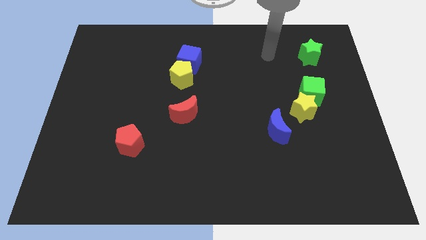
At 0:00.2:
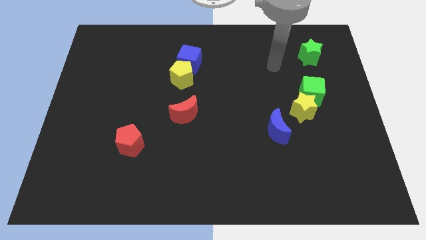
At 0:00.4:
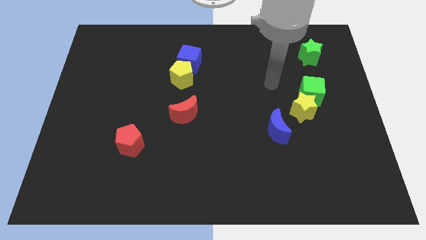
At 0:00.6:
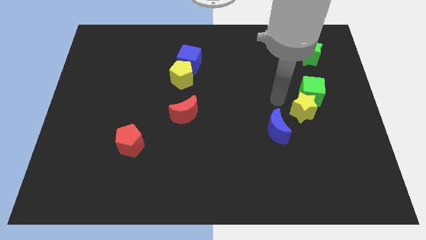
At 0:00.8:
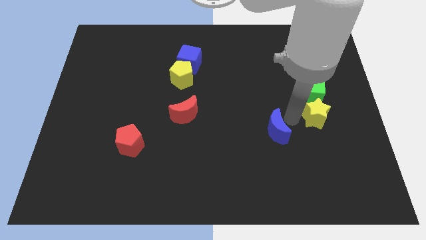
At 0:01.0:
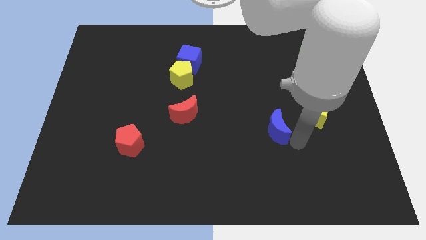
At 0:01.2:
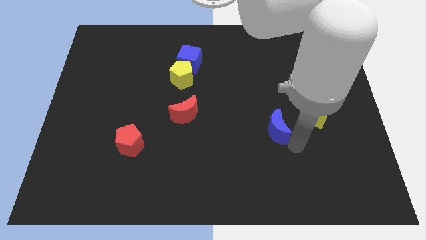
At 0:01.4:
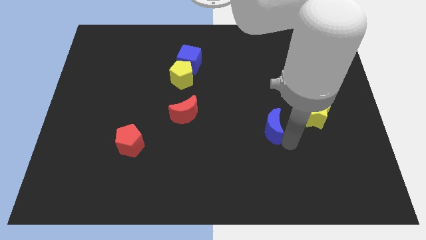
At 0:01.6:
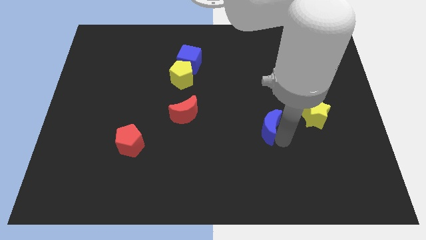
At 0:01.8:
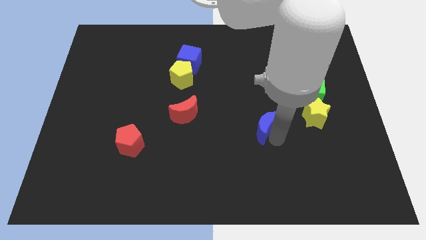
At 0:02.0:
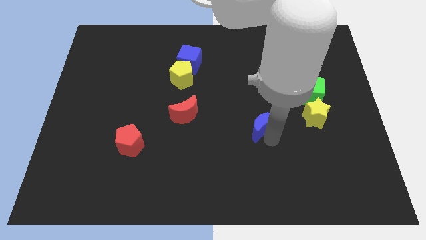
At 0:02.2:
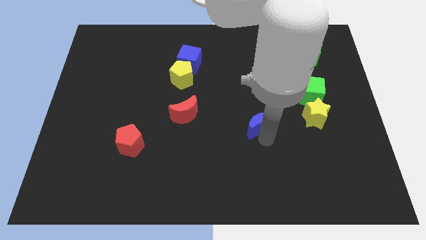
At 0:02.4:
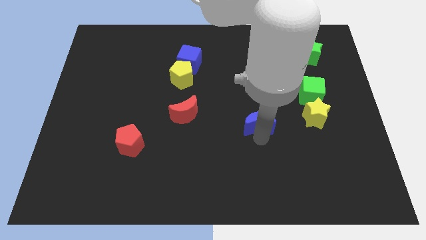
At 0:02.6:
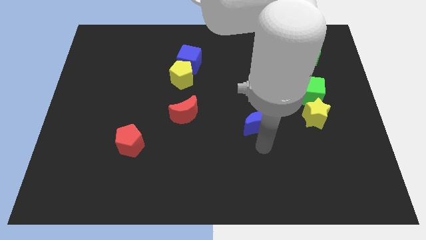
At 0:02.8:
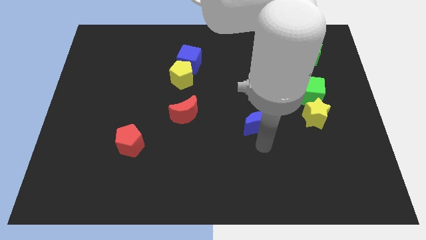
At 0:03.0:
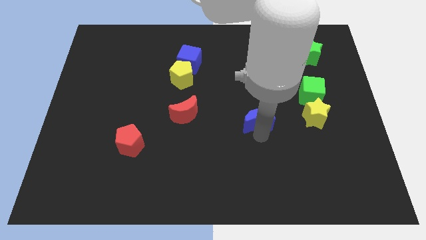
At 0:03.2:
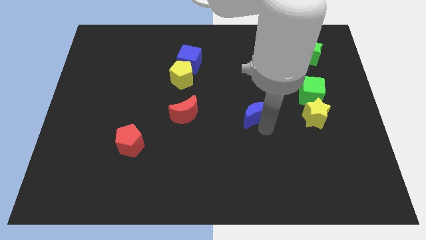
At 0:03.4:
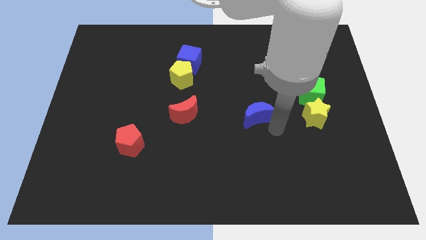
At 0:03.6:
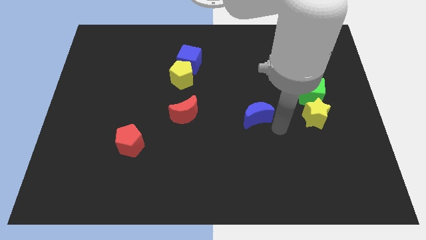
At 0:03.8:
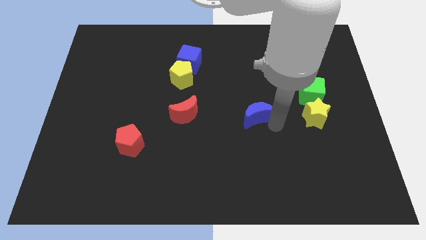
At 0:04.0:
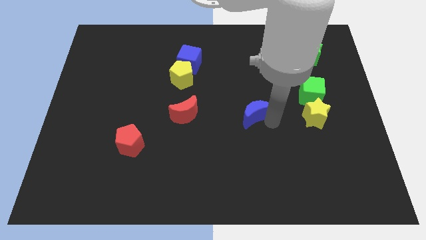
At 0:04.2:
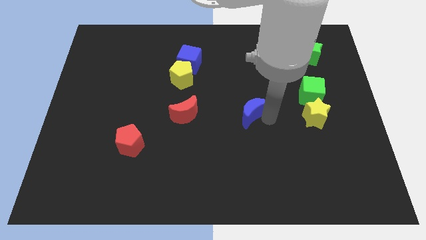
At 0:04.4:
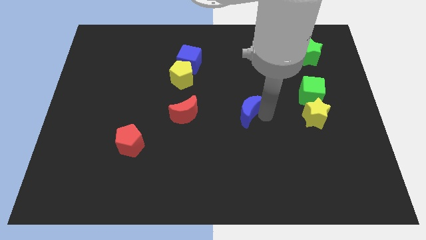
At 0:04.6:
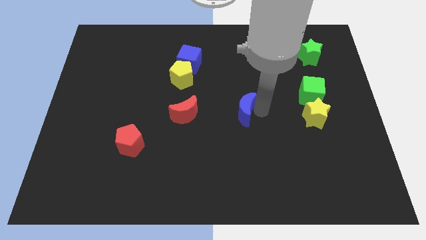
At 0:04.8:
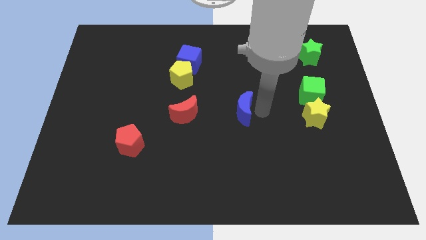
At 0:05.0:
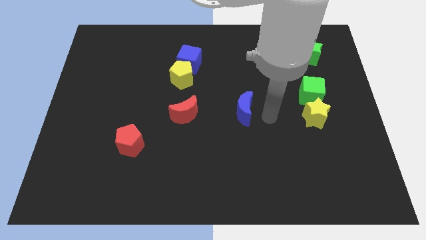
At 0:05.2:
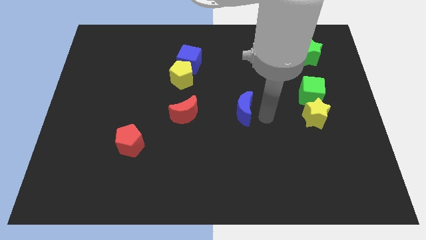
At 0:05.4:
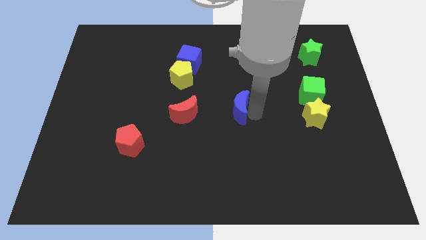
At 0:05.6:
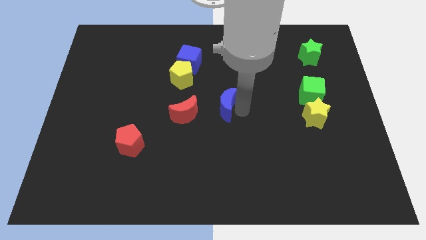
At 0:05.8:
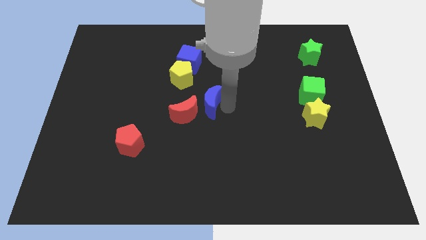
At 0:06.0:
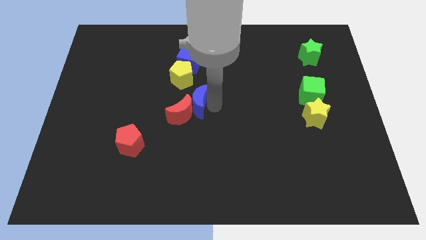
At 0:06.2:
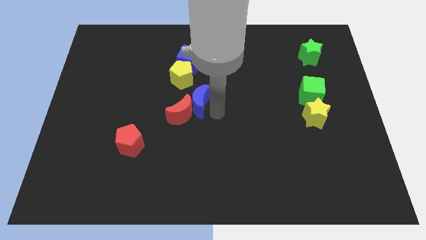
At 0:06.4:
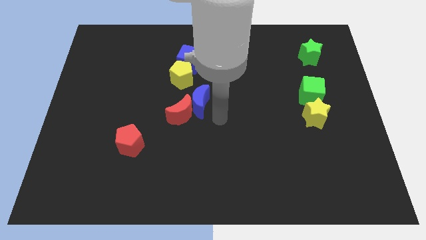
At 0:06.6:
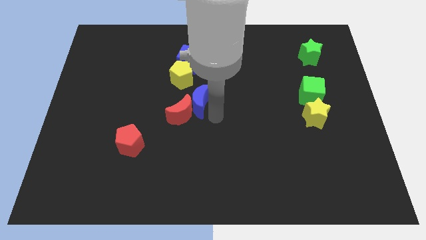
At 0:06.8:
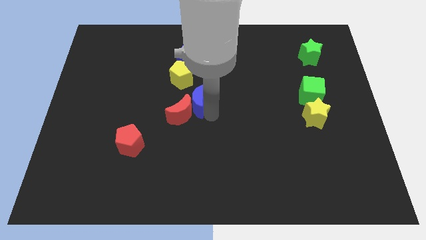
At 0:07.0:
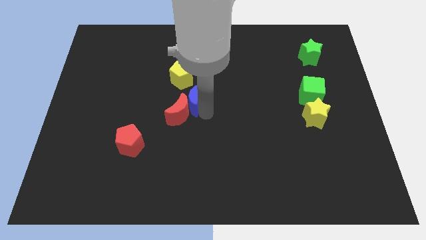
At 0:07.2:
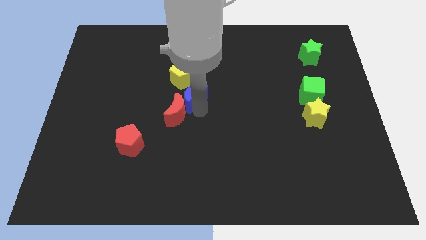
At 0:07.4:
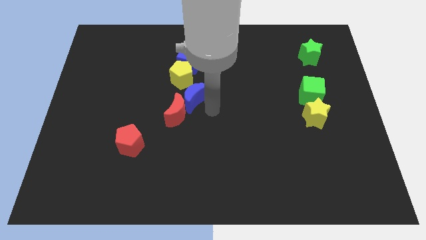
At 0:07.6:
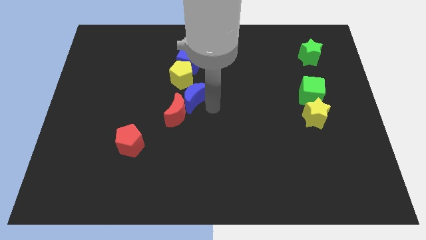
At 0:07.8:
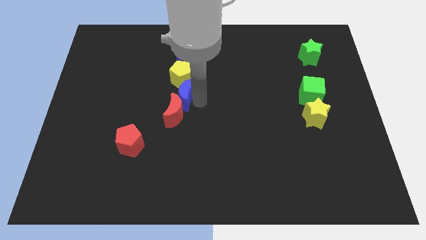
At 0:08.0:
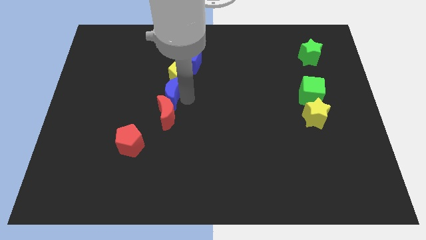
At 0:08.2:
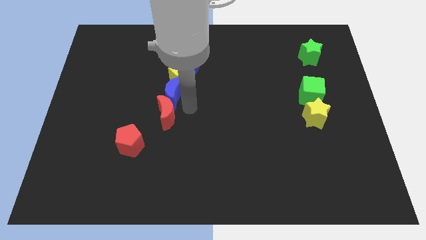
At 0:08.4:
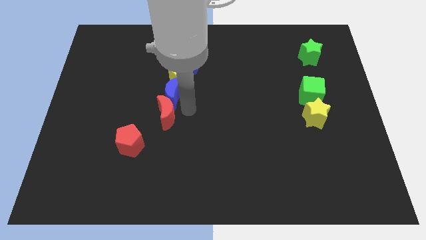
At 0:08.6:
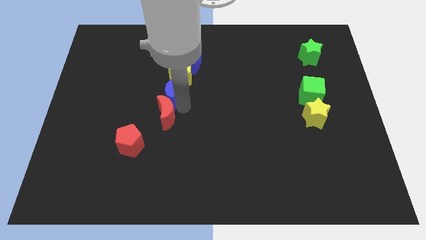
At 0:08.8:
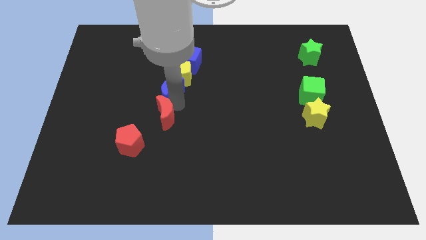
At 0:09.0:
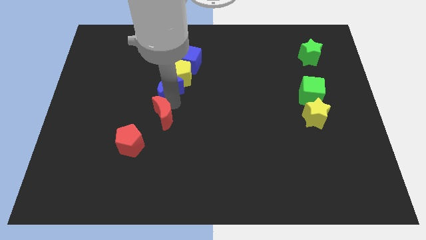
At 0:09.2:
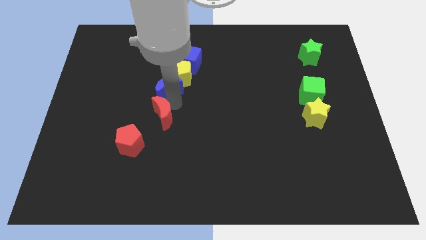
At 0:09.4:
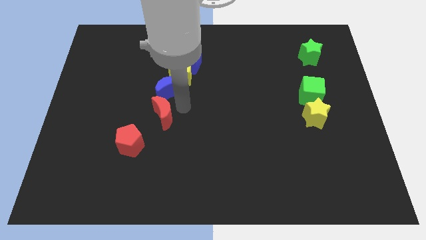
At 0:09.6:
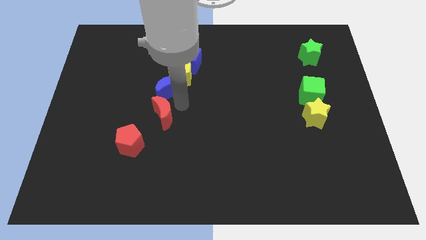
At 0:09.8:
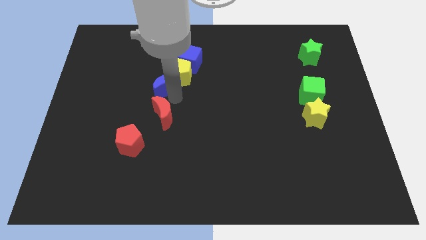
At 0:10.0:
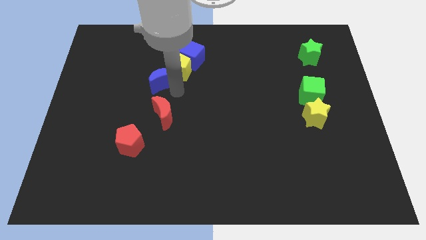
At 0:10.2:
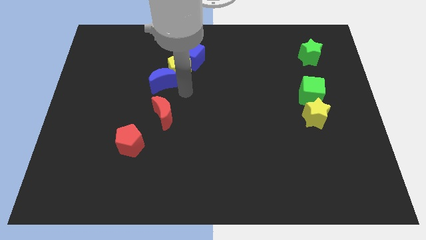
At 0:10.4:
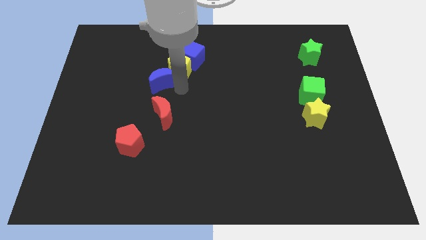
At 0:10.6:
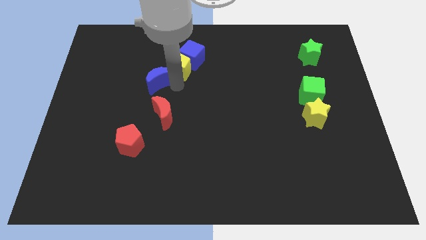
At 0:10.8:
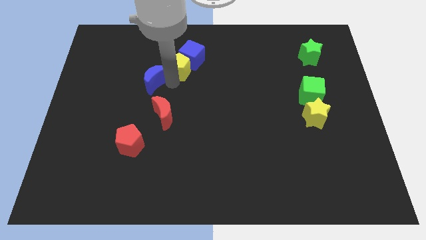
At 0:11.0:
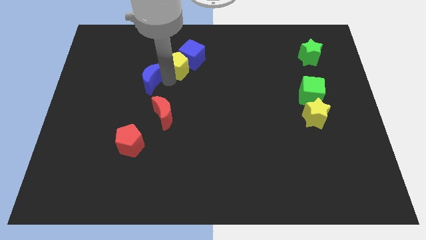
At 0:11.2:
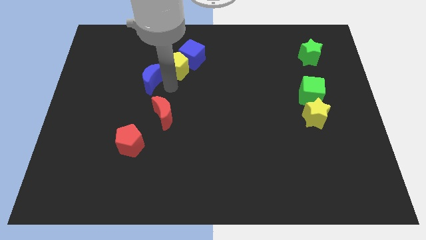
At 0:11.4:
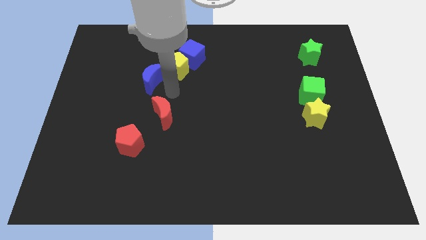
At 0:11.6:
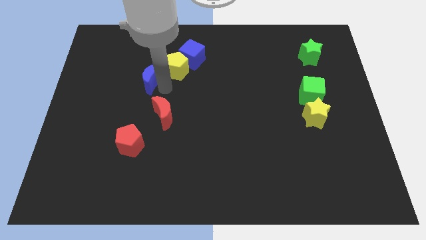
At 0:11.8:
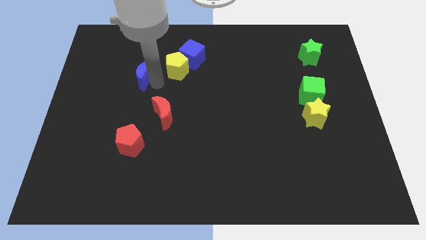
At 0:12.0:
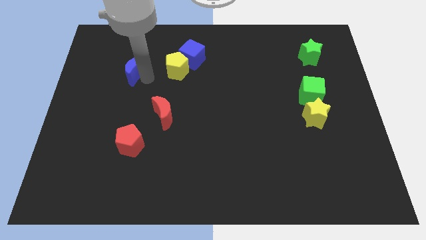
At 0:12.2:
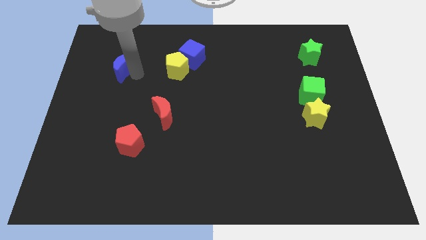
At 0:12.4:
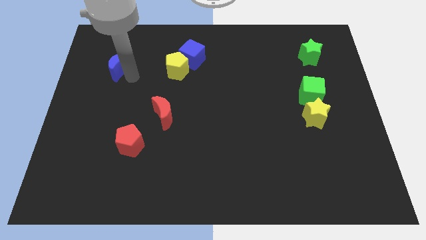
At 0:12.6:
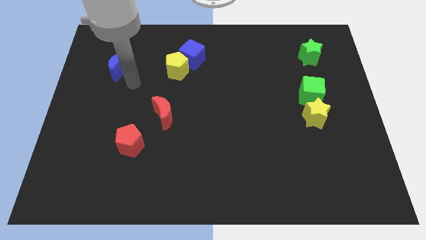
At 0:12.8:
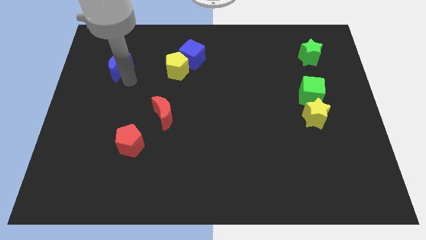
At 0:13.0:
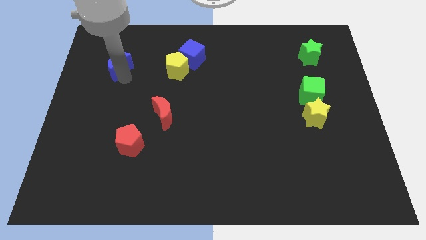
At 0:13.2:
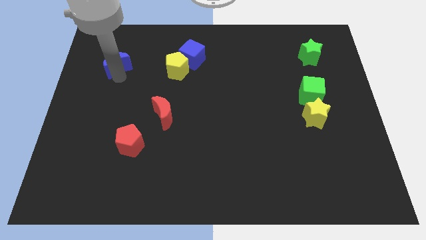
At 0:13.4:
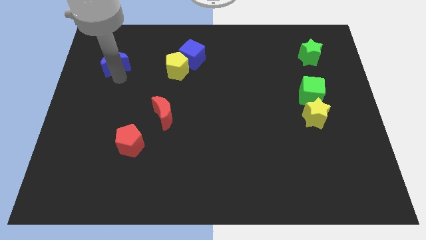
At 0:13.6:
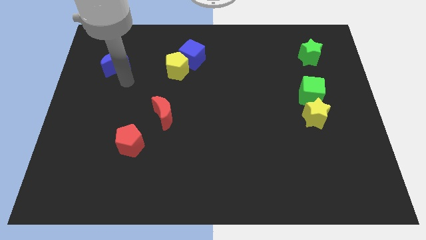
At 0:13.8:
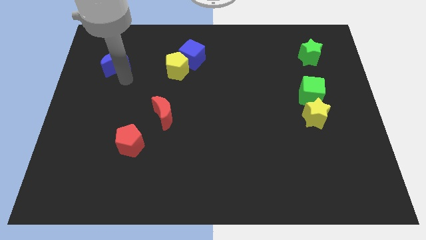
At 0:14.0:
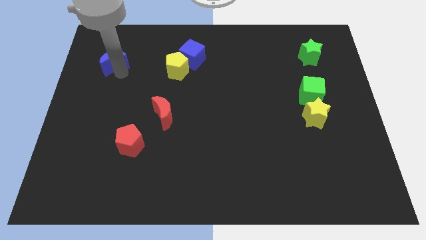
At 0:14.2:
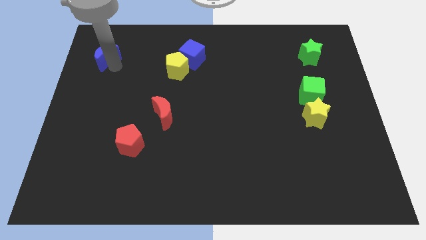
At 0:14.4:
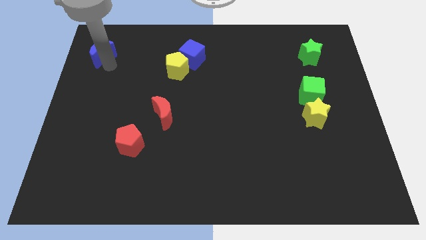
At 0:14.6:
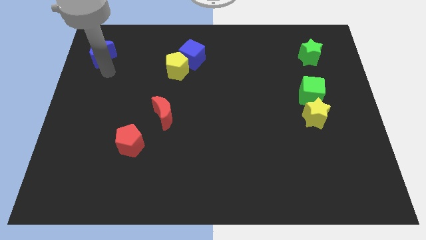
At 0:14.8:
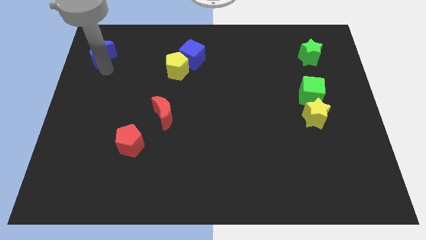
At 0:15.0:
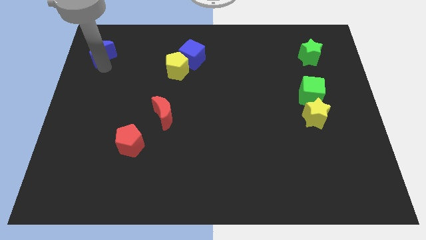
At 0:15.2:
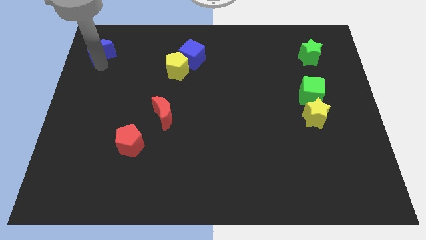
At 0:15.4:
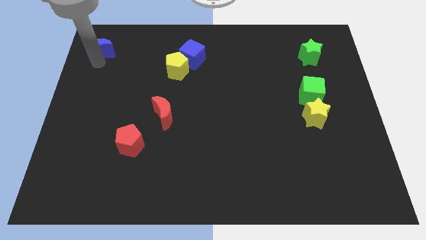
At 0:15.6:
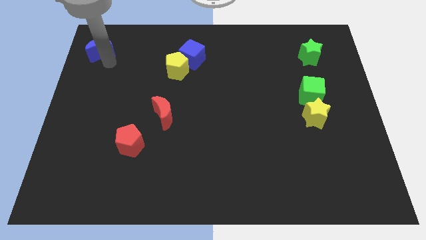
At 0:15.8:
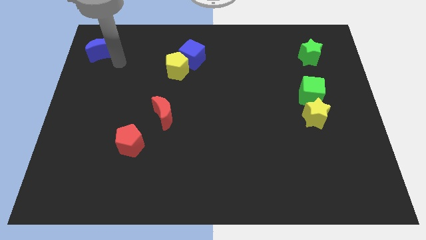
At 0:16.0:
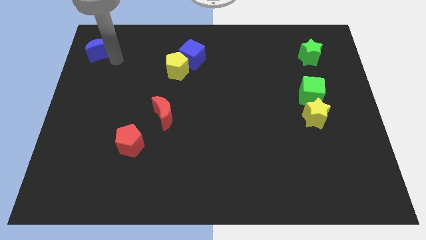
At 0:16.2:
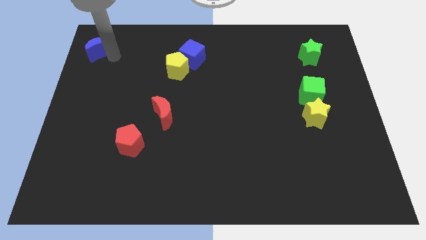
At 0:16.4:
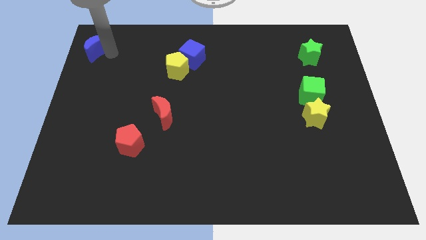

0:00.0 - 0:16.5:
slide the blue moon to the top left of the board
